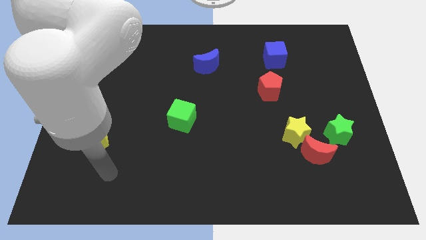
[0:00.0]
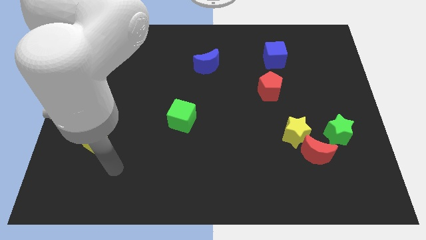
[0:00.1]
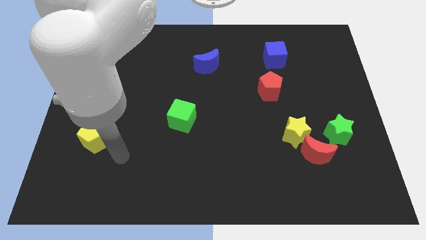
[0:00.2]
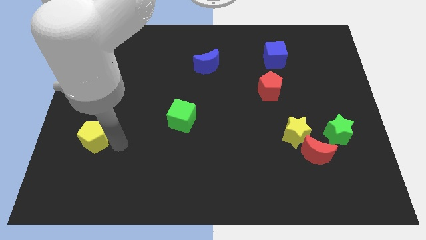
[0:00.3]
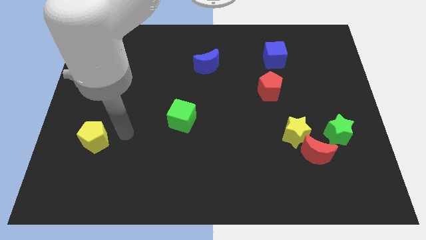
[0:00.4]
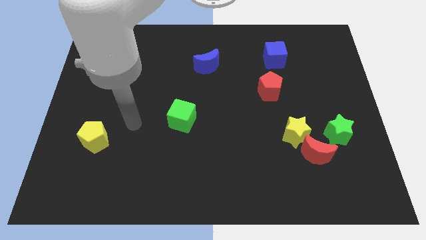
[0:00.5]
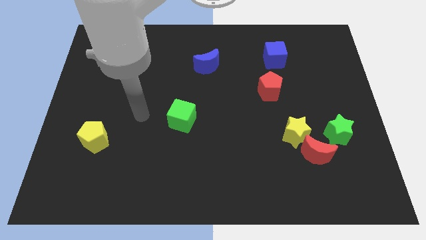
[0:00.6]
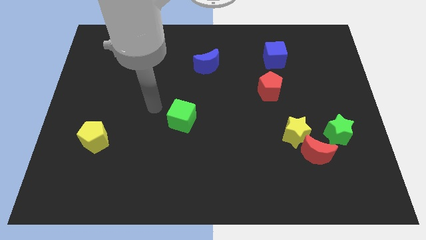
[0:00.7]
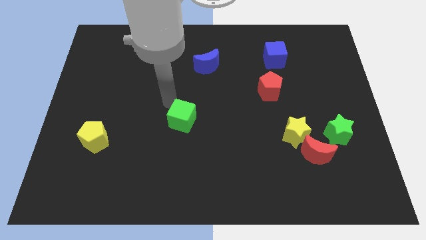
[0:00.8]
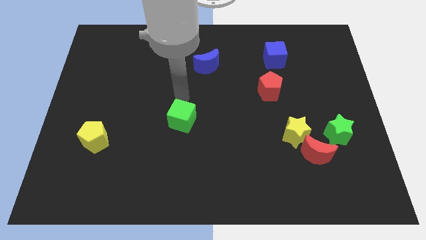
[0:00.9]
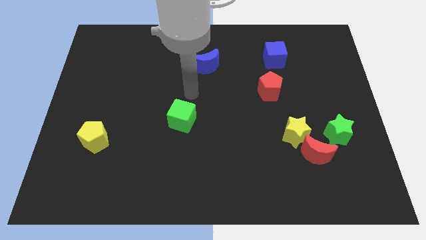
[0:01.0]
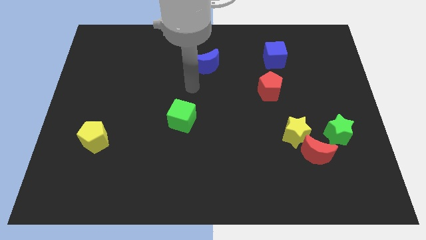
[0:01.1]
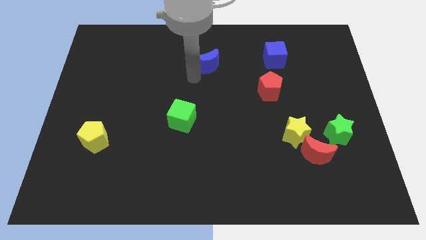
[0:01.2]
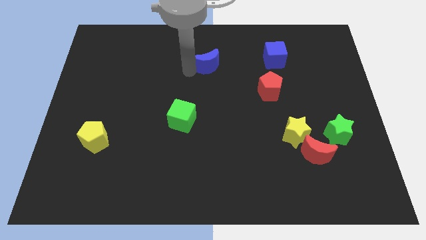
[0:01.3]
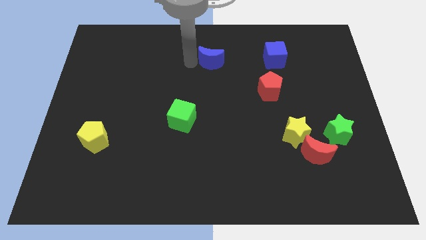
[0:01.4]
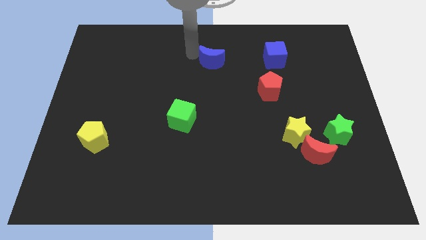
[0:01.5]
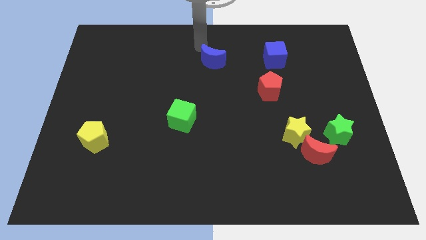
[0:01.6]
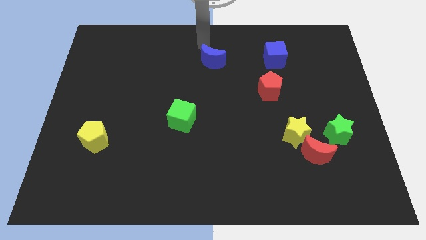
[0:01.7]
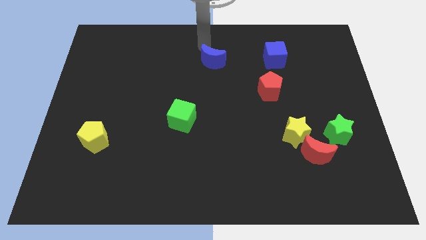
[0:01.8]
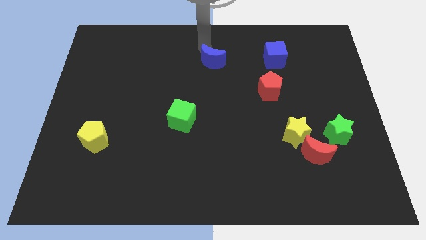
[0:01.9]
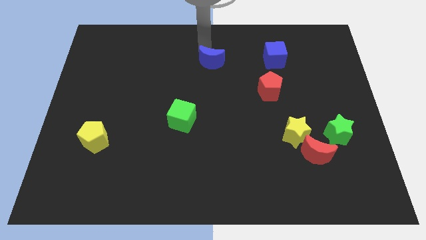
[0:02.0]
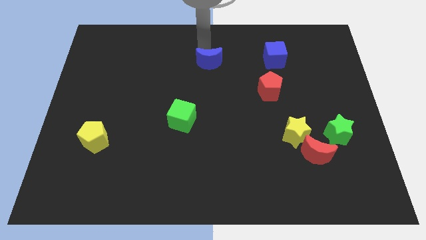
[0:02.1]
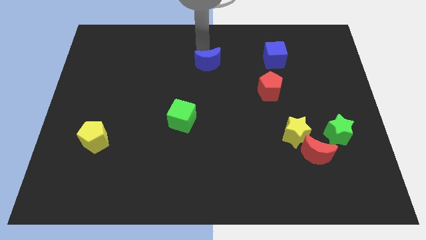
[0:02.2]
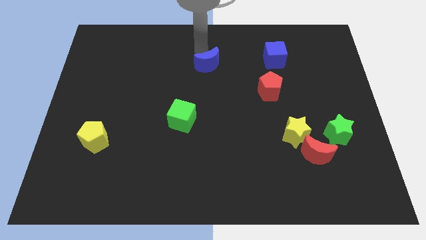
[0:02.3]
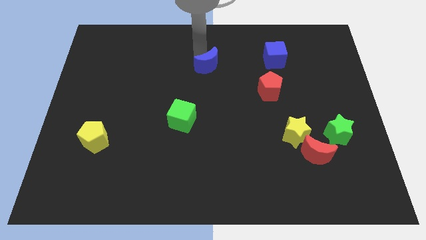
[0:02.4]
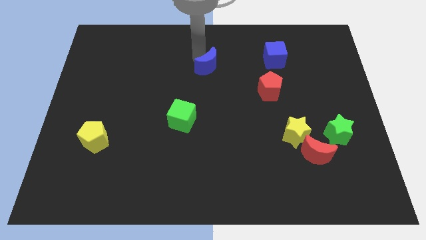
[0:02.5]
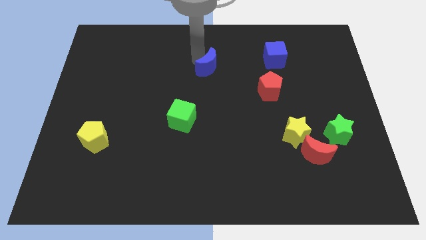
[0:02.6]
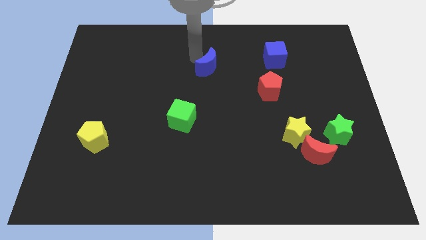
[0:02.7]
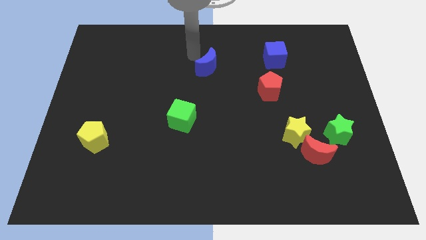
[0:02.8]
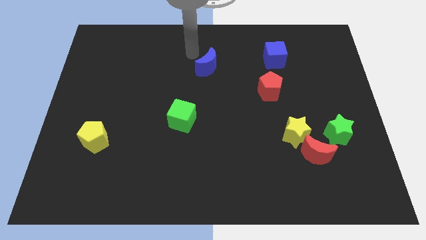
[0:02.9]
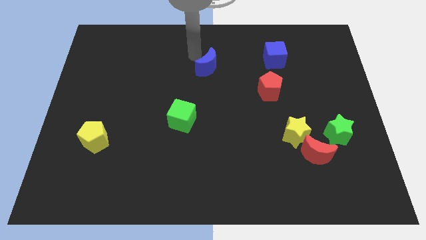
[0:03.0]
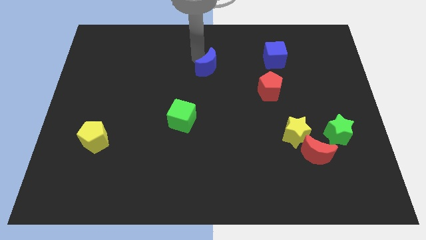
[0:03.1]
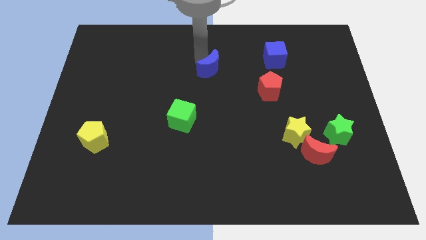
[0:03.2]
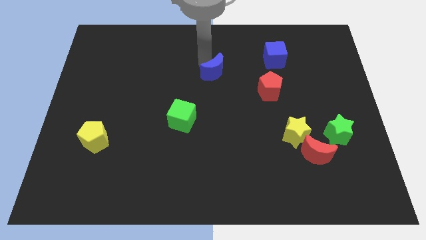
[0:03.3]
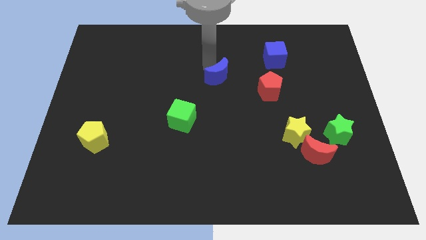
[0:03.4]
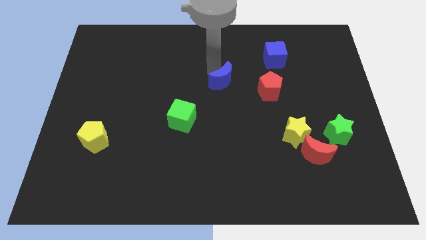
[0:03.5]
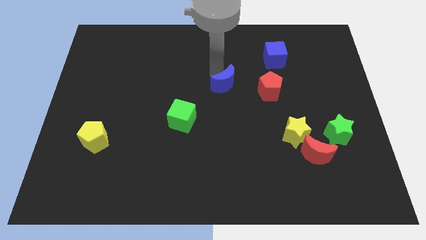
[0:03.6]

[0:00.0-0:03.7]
slide the blue moon diagonally down and right a little bit

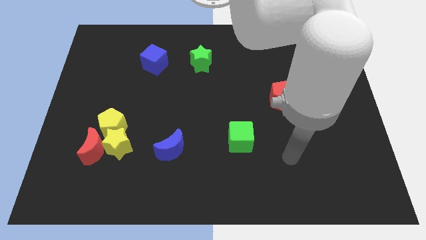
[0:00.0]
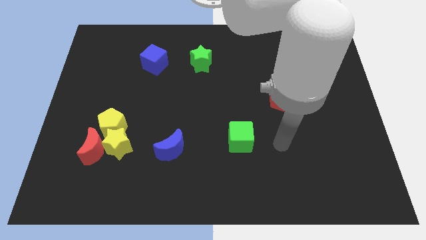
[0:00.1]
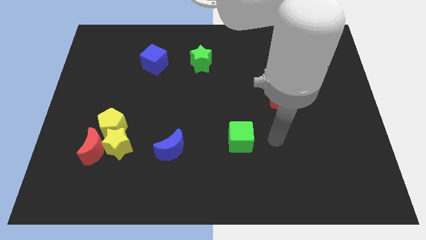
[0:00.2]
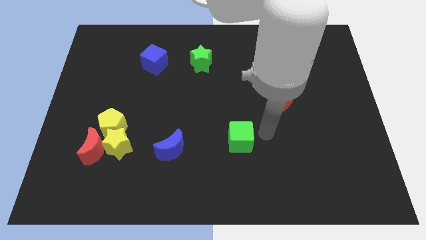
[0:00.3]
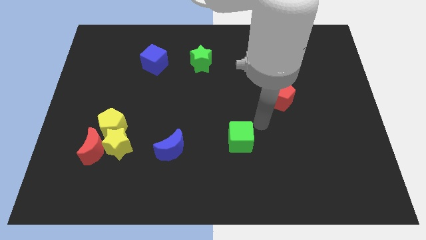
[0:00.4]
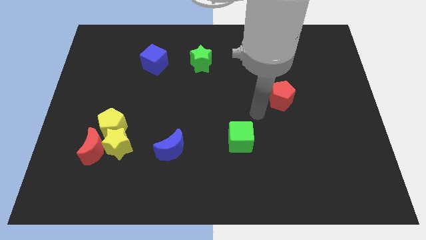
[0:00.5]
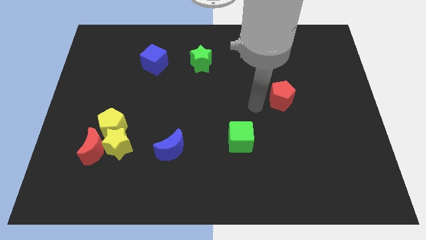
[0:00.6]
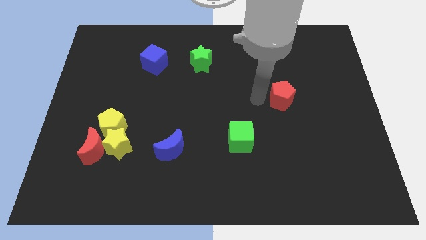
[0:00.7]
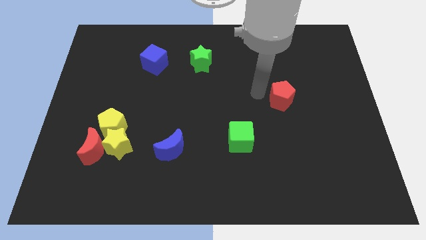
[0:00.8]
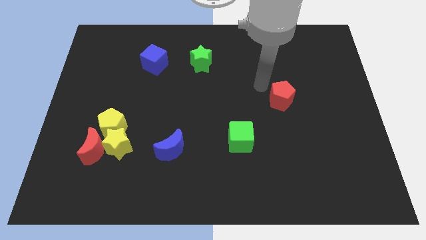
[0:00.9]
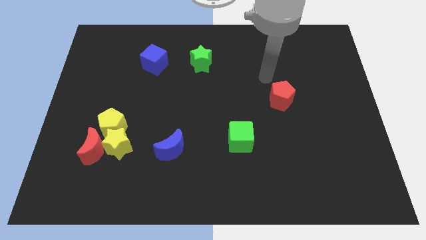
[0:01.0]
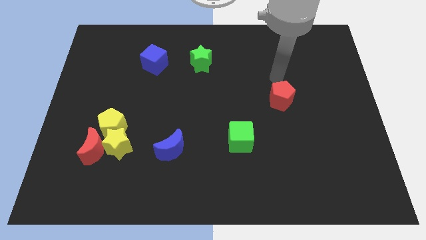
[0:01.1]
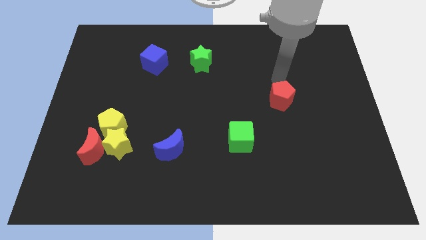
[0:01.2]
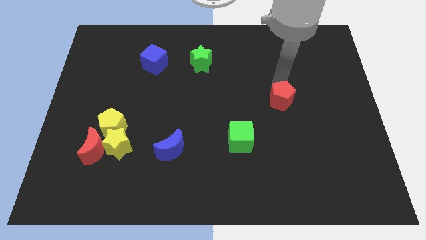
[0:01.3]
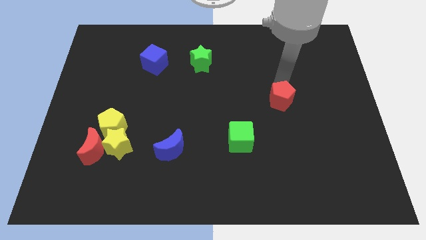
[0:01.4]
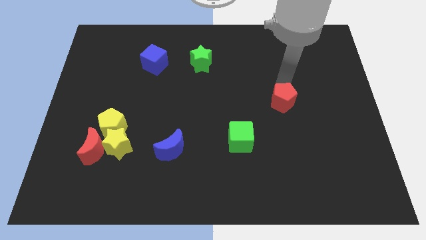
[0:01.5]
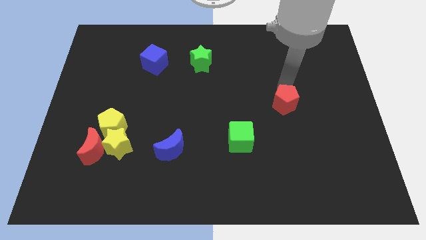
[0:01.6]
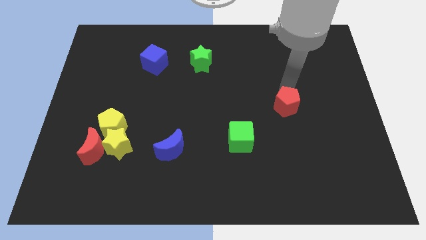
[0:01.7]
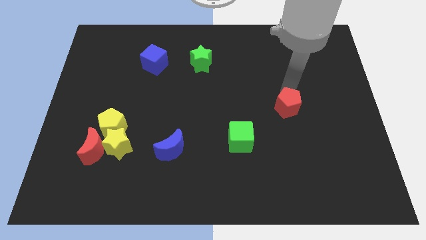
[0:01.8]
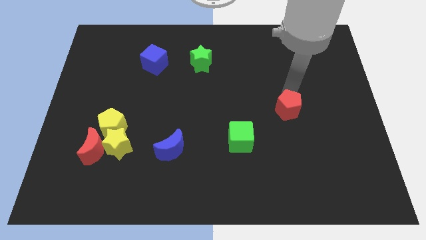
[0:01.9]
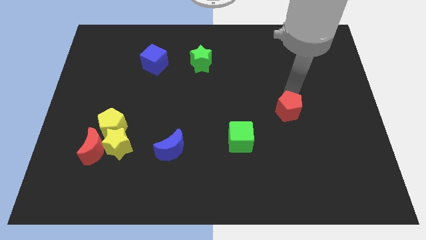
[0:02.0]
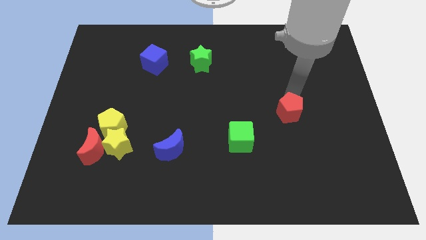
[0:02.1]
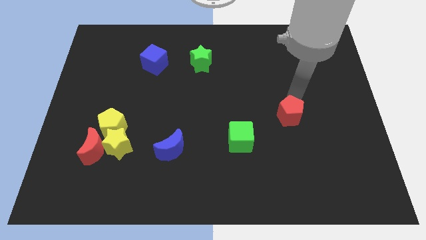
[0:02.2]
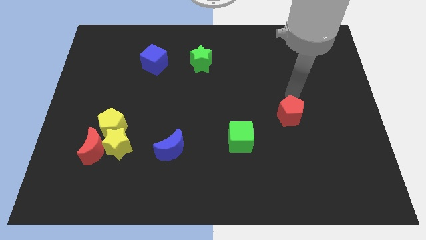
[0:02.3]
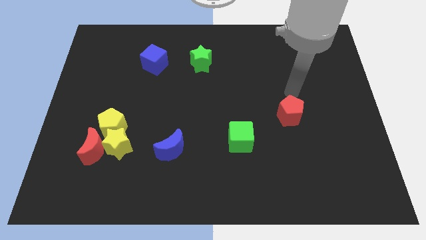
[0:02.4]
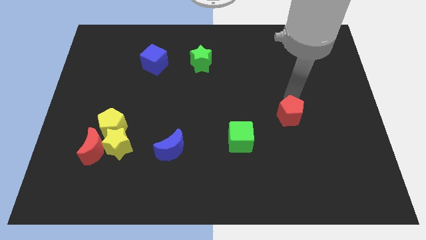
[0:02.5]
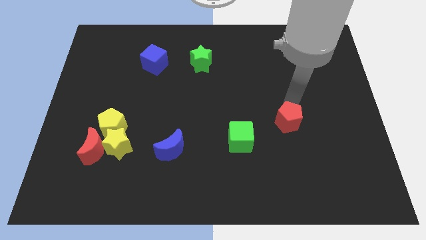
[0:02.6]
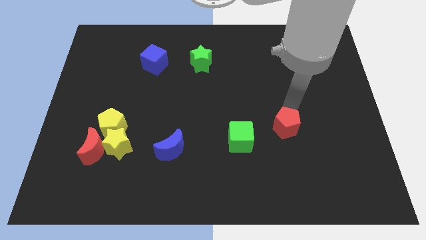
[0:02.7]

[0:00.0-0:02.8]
slide the red pentagon a little bit downwards

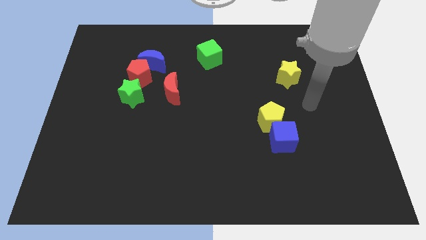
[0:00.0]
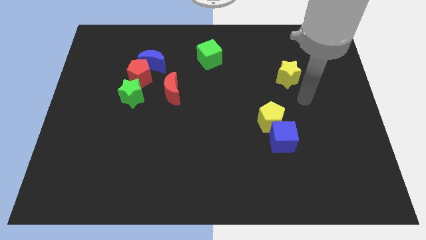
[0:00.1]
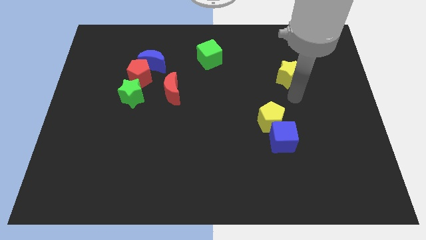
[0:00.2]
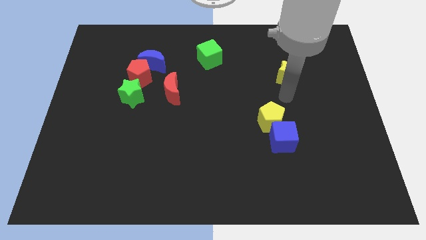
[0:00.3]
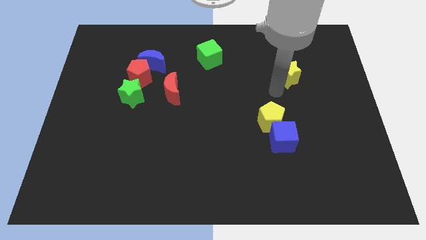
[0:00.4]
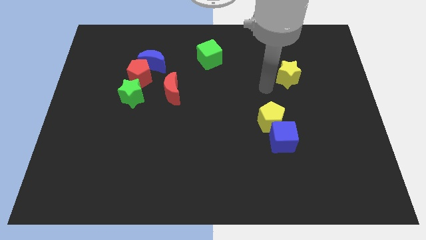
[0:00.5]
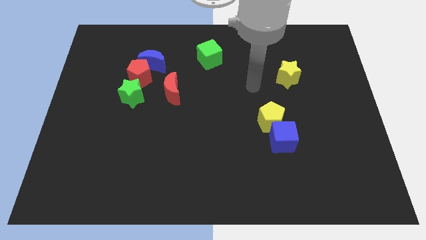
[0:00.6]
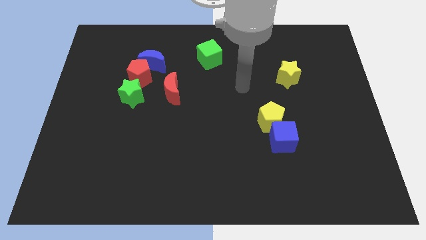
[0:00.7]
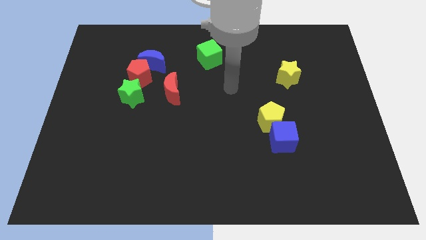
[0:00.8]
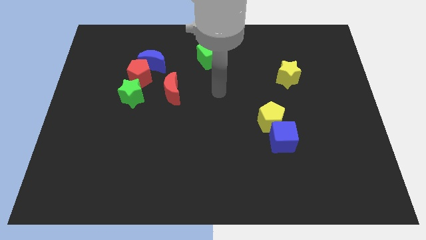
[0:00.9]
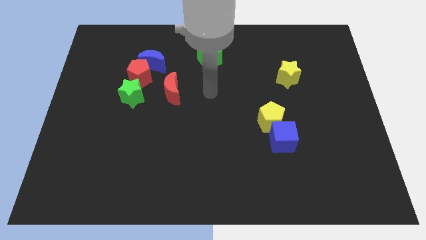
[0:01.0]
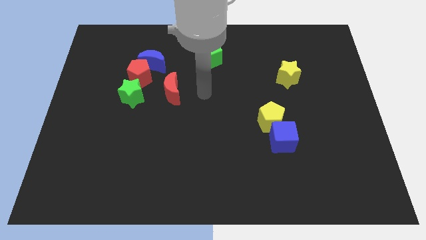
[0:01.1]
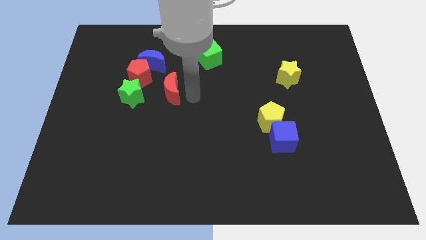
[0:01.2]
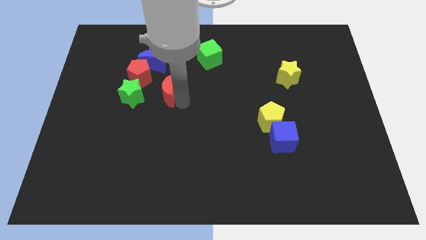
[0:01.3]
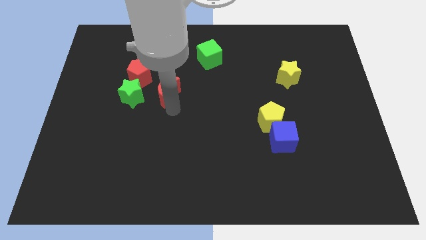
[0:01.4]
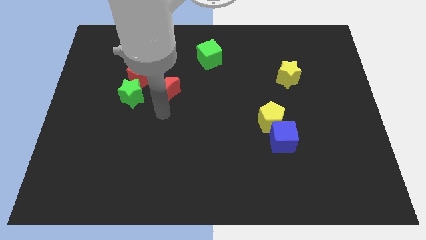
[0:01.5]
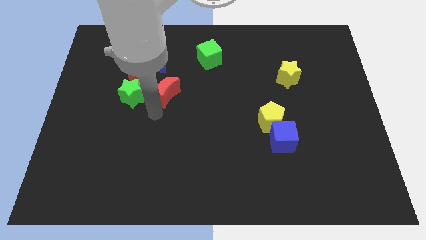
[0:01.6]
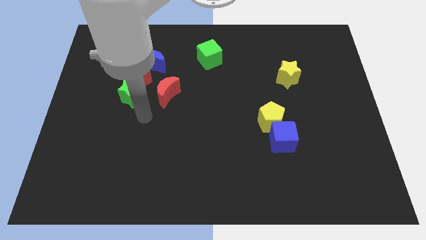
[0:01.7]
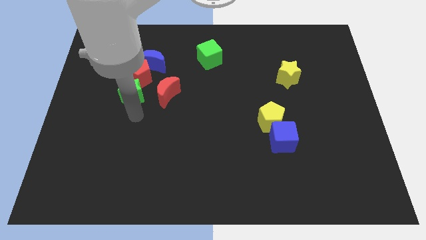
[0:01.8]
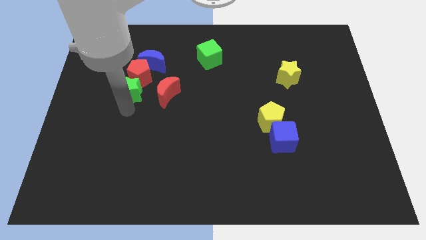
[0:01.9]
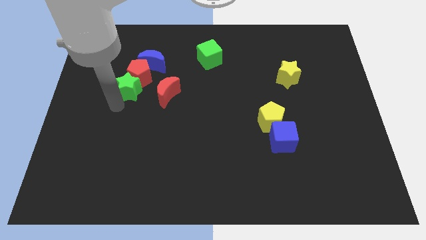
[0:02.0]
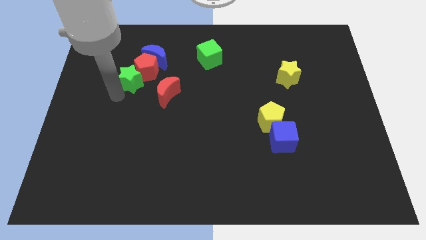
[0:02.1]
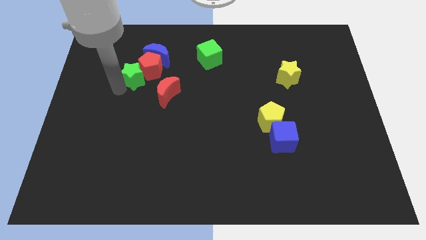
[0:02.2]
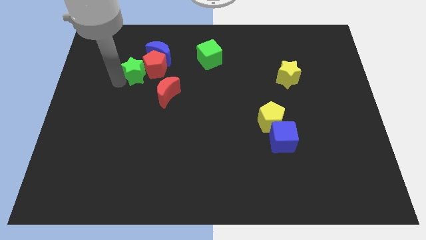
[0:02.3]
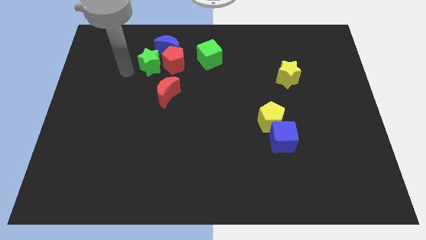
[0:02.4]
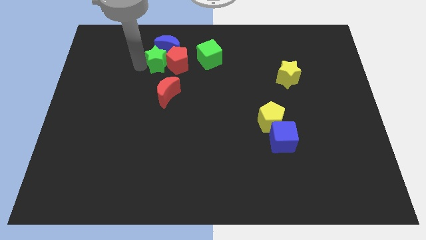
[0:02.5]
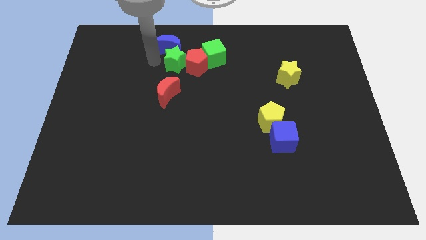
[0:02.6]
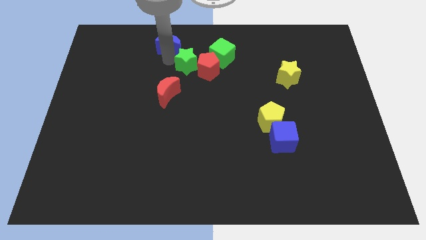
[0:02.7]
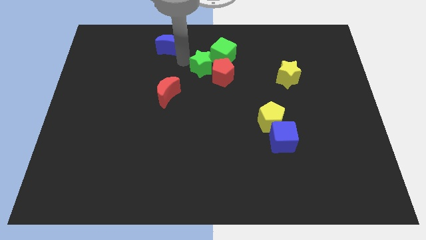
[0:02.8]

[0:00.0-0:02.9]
slide the red pentagon right
